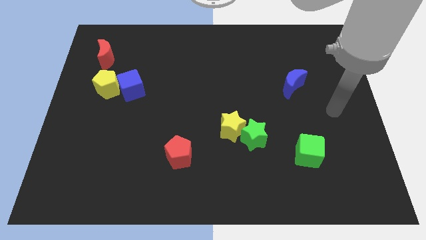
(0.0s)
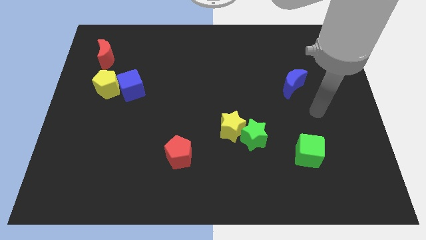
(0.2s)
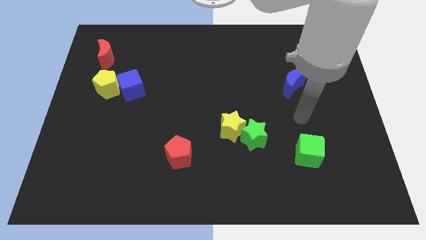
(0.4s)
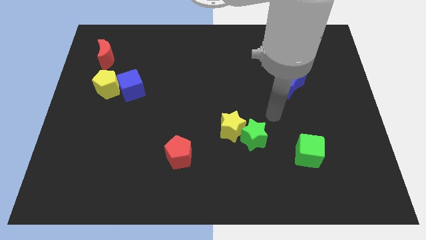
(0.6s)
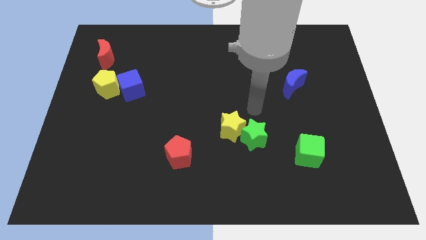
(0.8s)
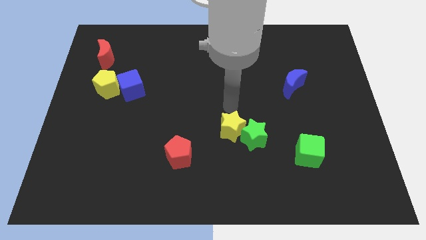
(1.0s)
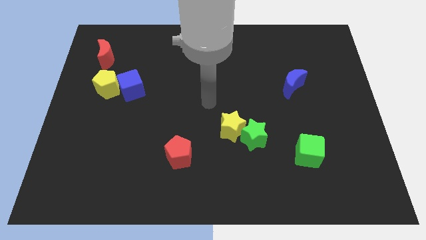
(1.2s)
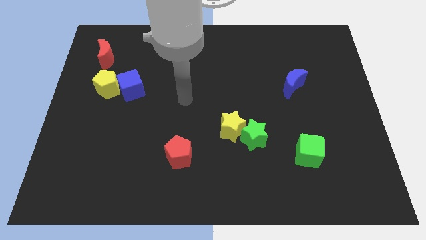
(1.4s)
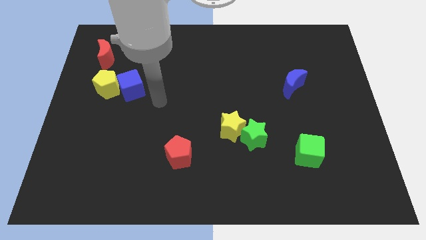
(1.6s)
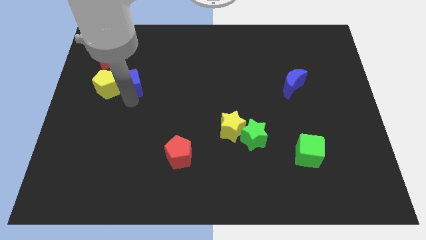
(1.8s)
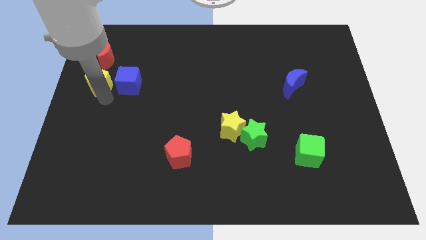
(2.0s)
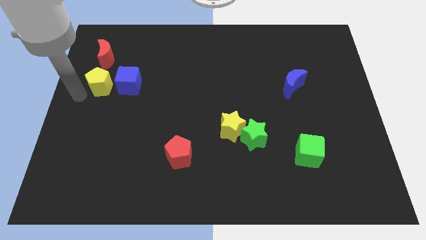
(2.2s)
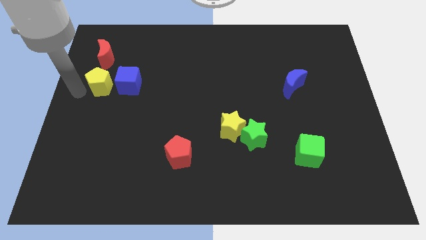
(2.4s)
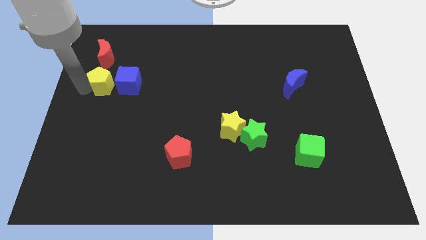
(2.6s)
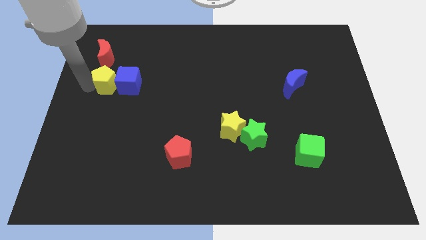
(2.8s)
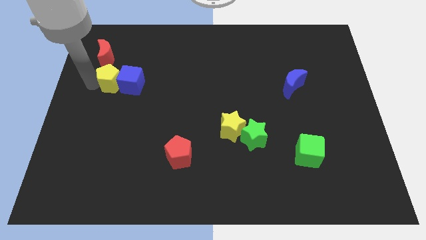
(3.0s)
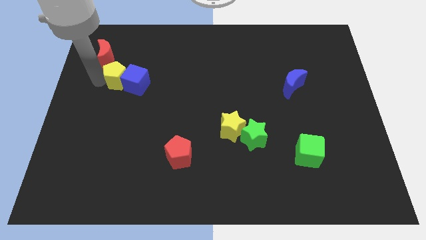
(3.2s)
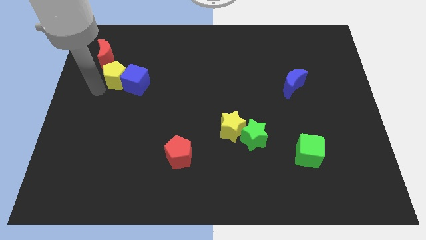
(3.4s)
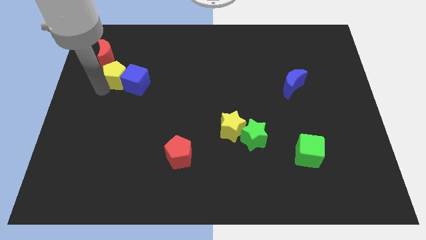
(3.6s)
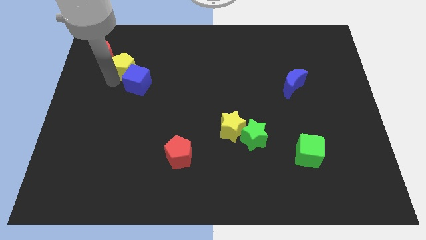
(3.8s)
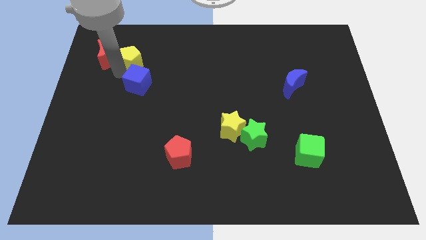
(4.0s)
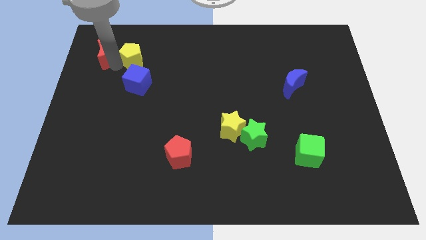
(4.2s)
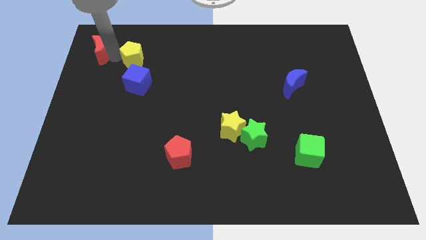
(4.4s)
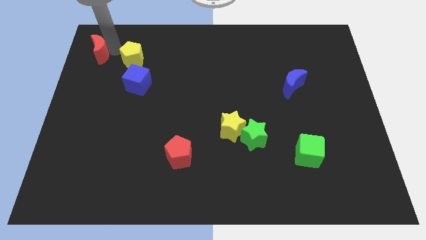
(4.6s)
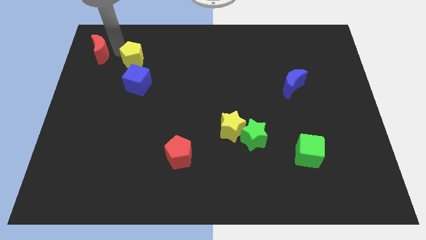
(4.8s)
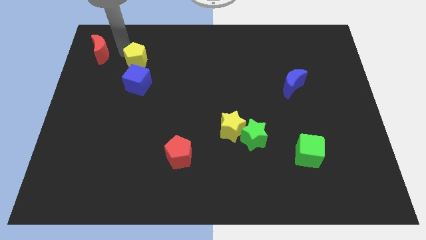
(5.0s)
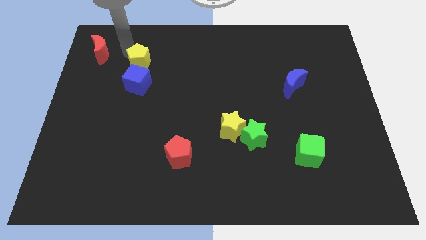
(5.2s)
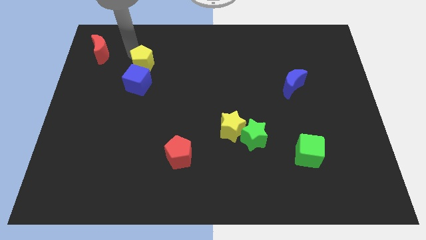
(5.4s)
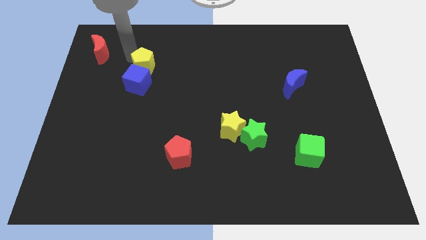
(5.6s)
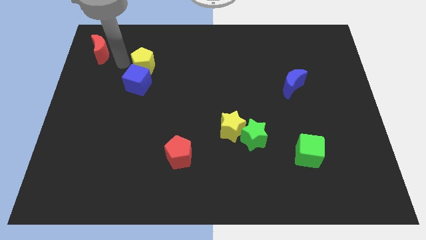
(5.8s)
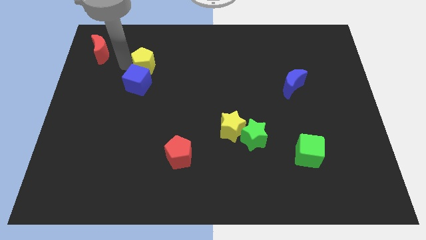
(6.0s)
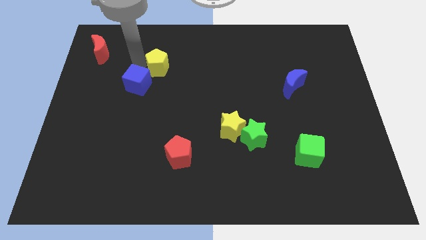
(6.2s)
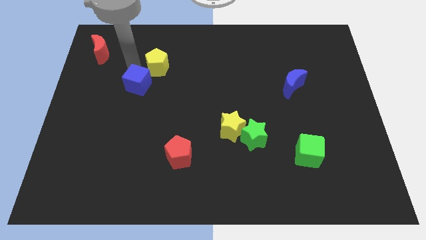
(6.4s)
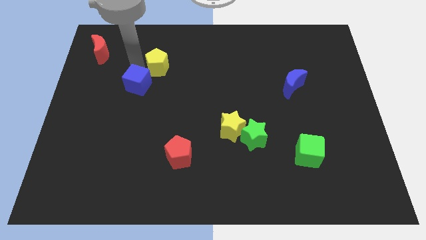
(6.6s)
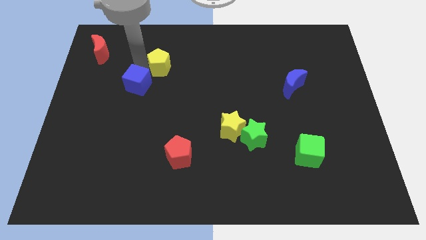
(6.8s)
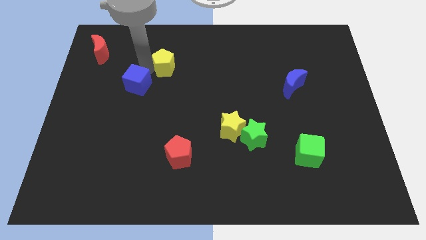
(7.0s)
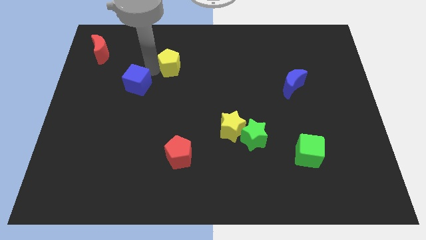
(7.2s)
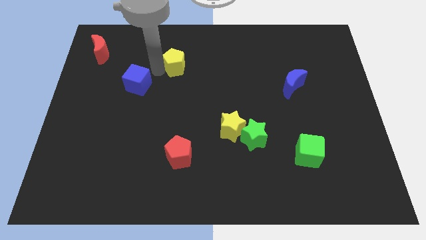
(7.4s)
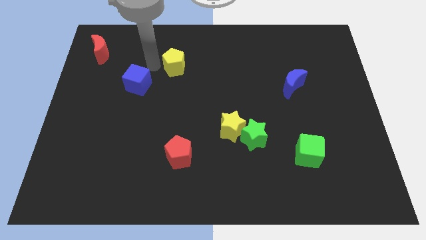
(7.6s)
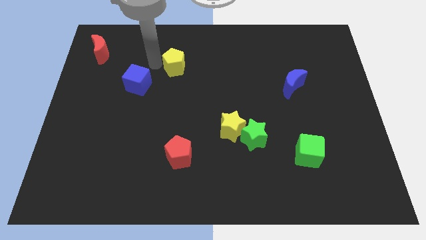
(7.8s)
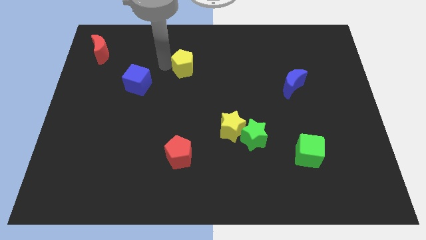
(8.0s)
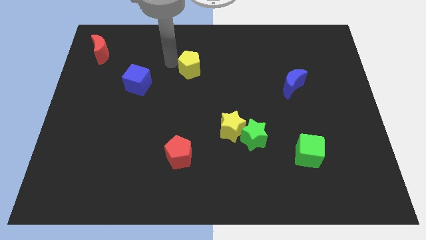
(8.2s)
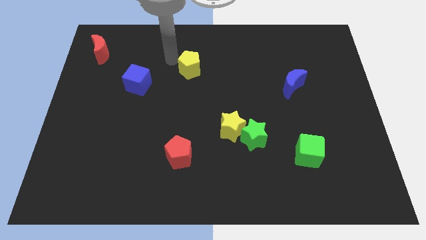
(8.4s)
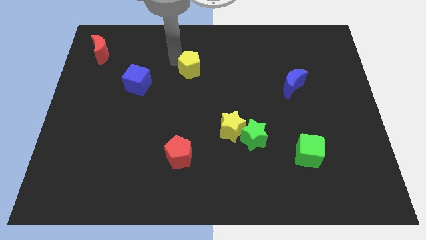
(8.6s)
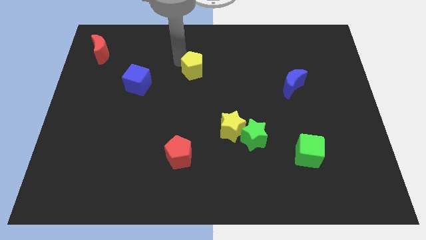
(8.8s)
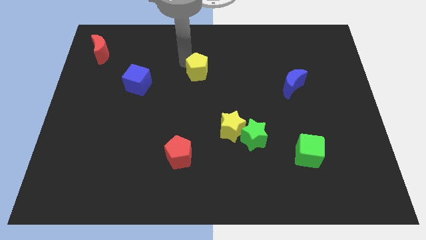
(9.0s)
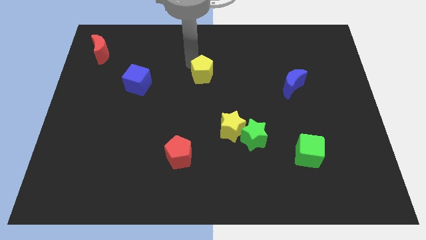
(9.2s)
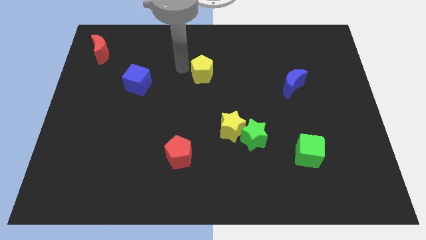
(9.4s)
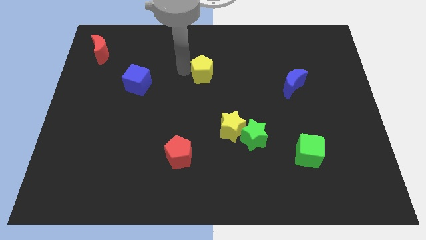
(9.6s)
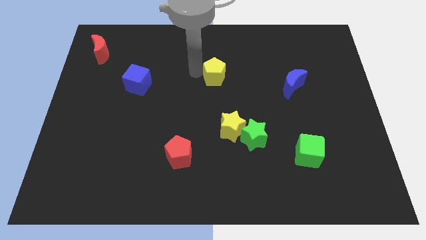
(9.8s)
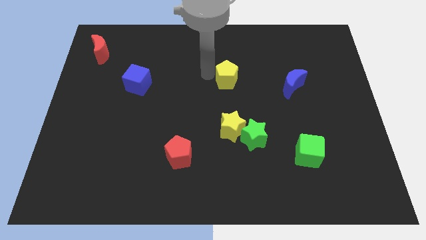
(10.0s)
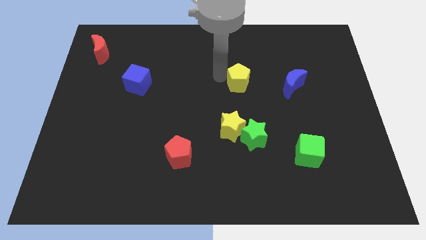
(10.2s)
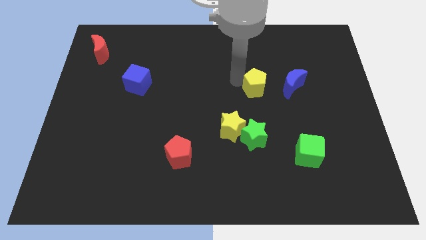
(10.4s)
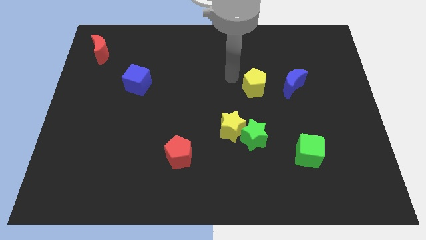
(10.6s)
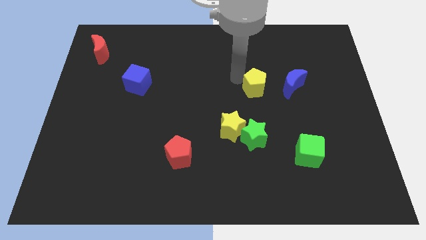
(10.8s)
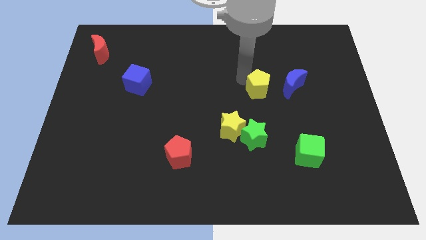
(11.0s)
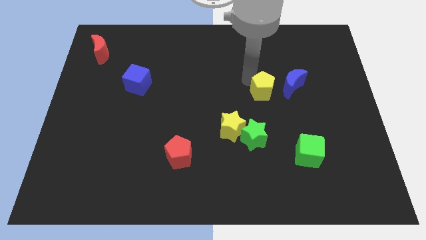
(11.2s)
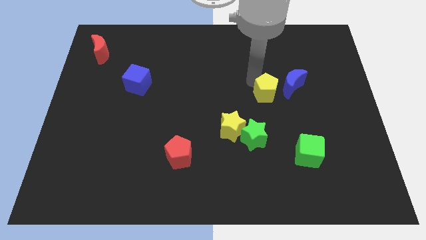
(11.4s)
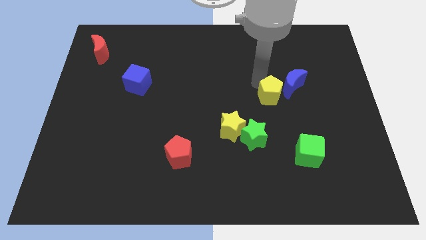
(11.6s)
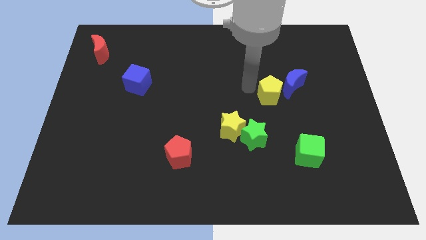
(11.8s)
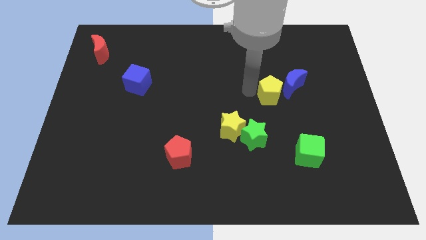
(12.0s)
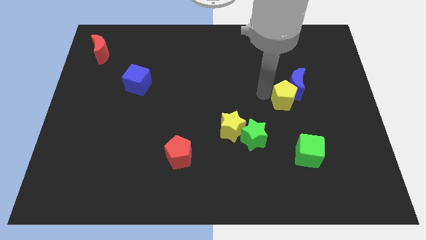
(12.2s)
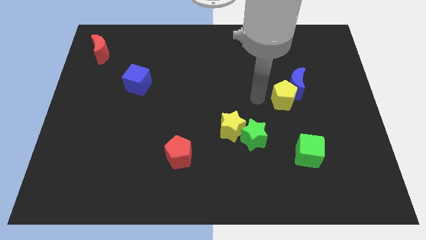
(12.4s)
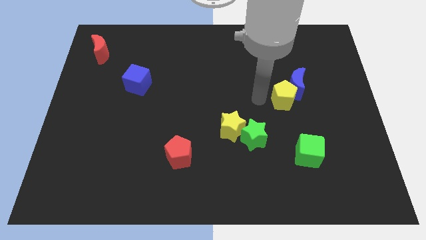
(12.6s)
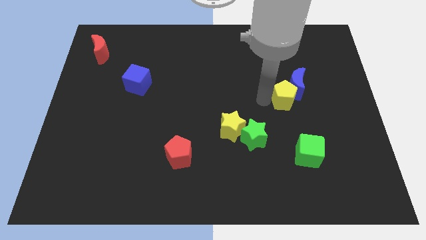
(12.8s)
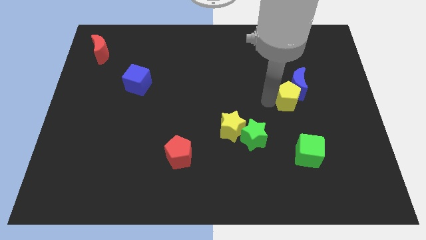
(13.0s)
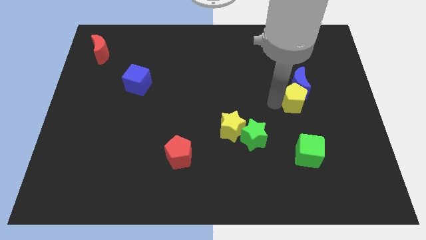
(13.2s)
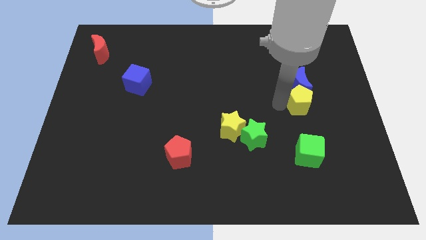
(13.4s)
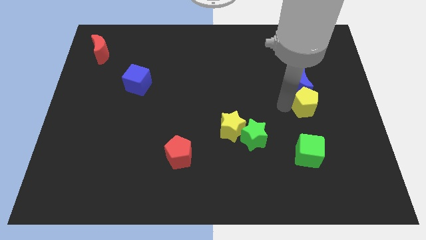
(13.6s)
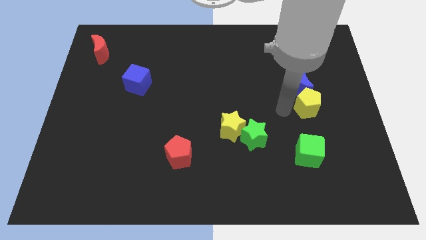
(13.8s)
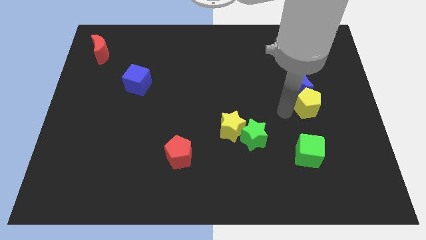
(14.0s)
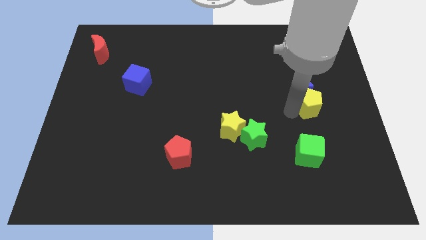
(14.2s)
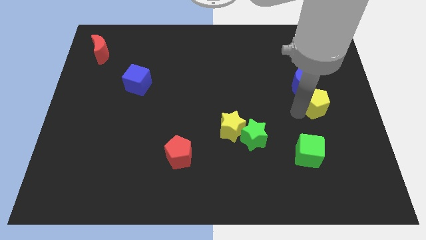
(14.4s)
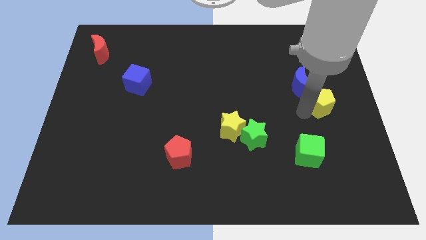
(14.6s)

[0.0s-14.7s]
slide the yellow pentagon to the right side

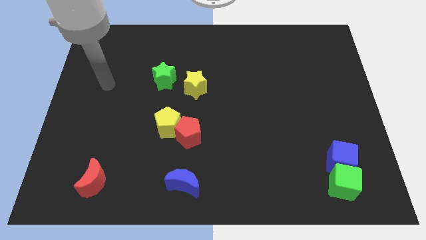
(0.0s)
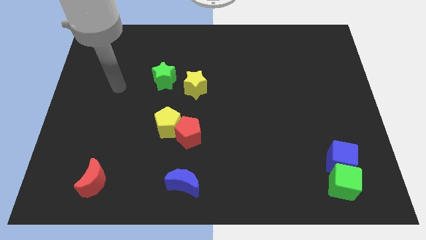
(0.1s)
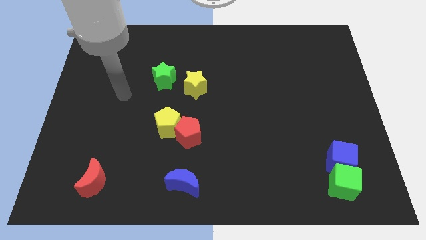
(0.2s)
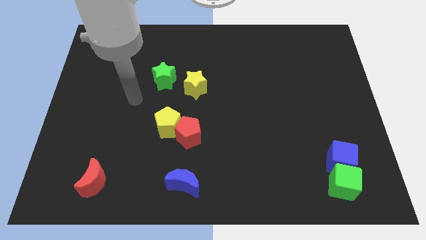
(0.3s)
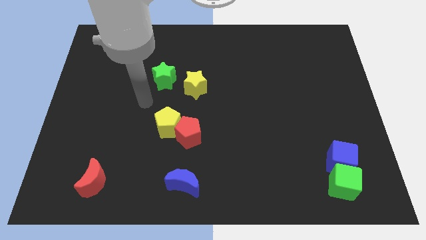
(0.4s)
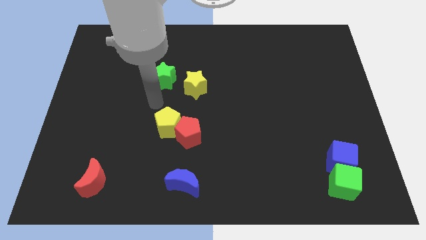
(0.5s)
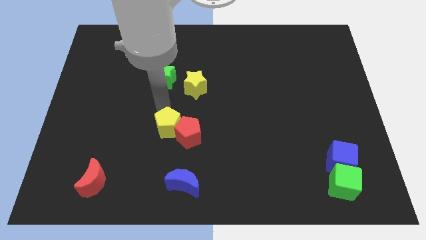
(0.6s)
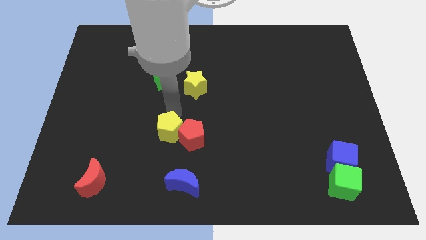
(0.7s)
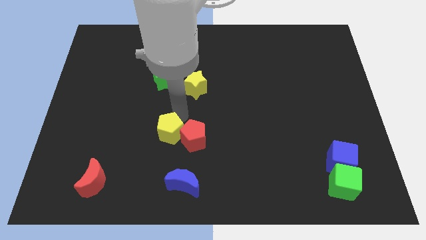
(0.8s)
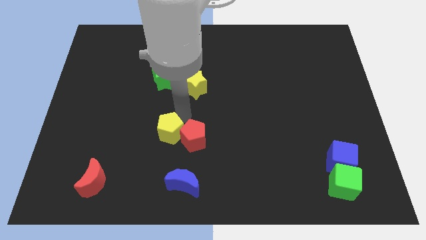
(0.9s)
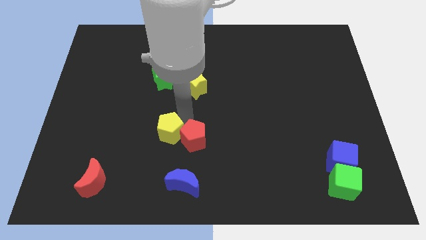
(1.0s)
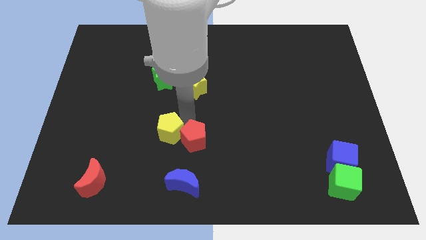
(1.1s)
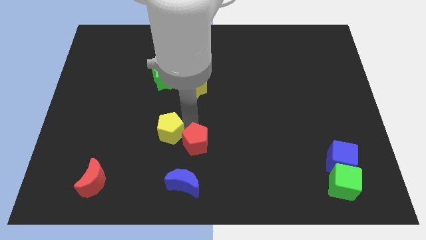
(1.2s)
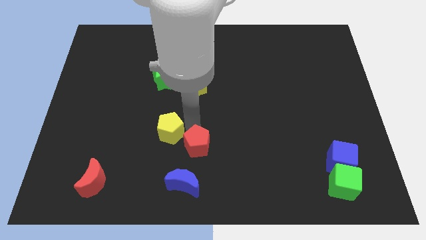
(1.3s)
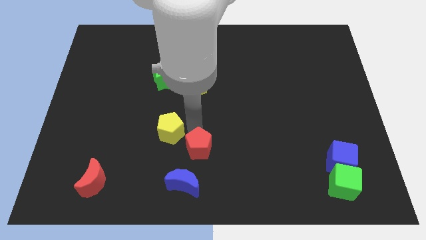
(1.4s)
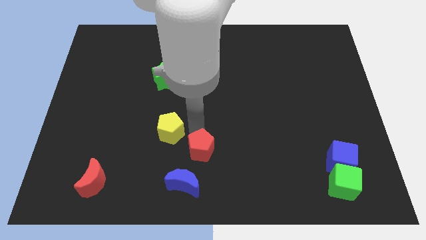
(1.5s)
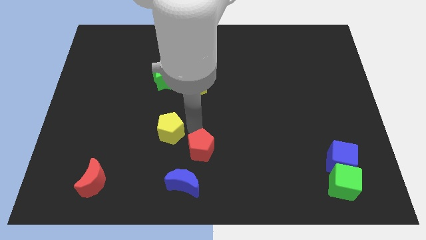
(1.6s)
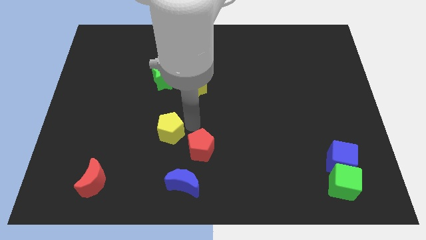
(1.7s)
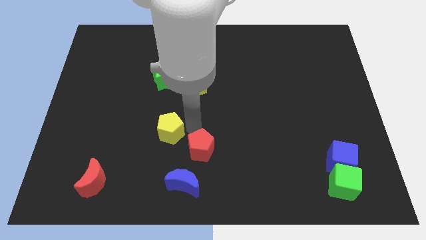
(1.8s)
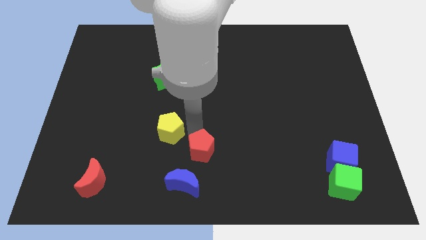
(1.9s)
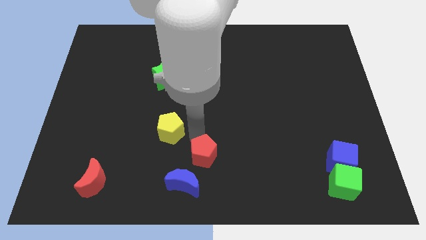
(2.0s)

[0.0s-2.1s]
slide the red pentagon to the bottom side
